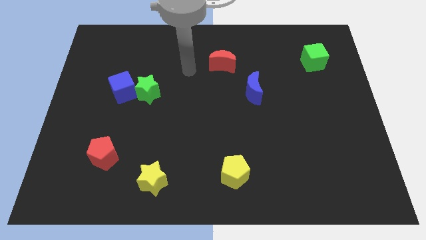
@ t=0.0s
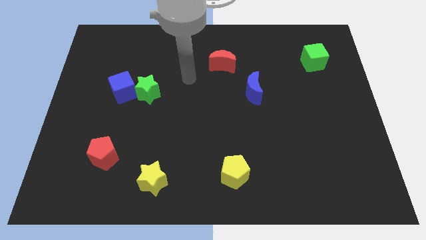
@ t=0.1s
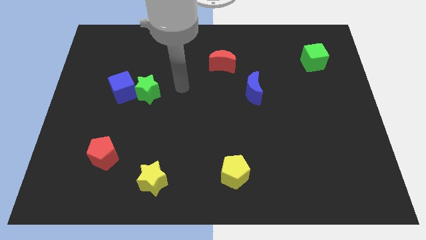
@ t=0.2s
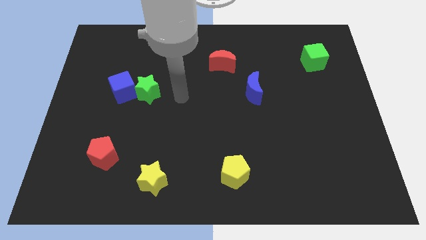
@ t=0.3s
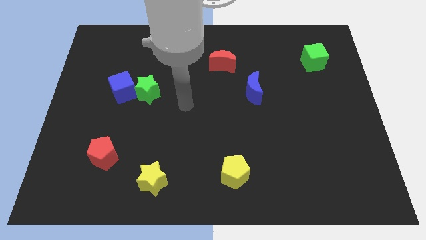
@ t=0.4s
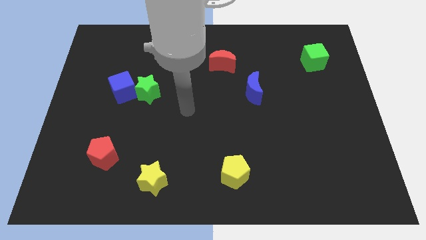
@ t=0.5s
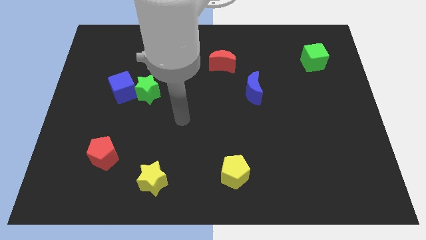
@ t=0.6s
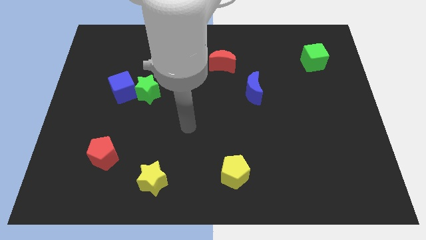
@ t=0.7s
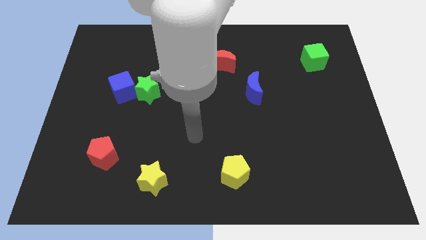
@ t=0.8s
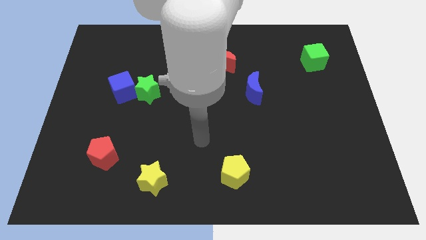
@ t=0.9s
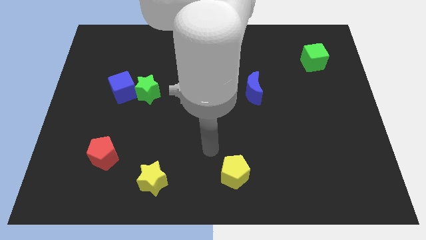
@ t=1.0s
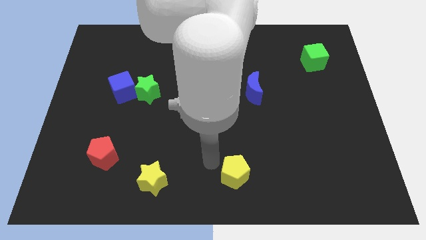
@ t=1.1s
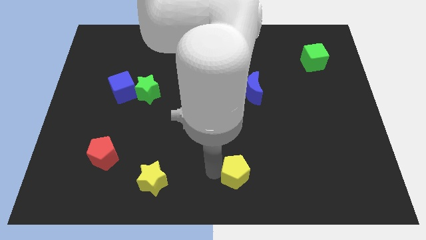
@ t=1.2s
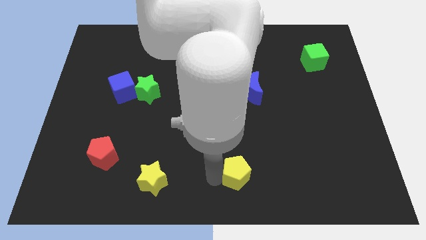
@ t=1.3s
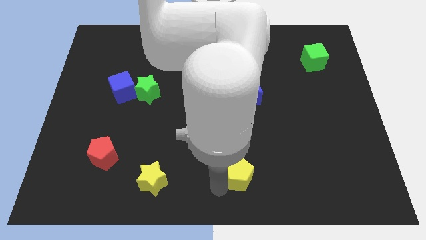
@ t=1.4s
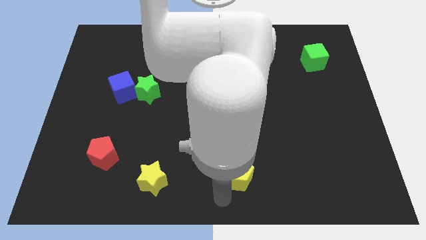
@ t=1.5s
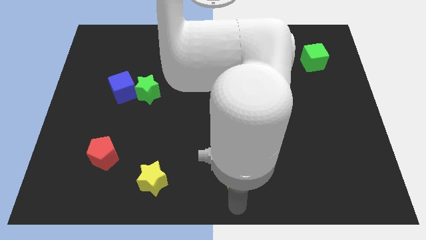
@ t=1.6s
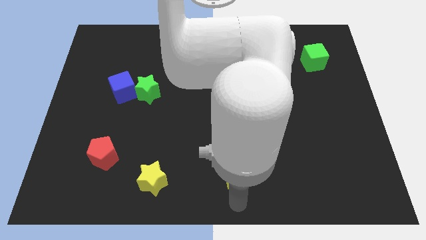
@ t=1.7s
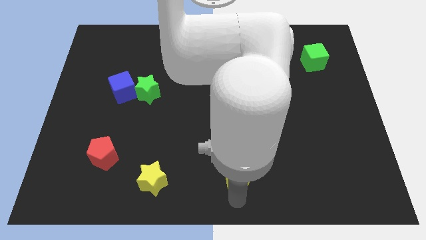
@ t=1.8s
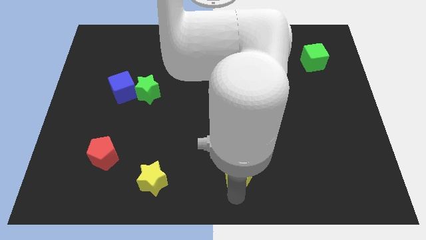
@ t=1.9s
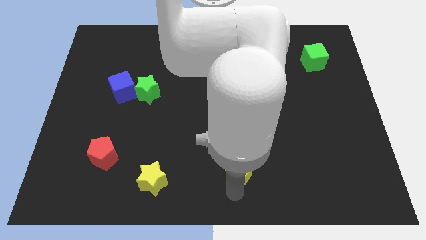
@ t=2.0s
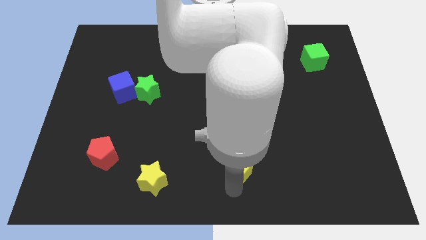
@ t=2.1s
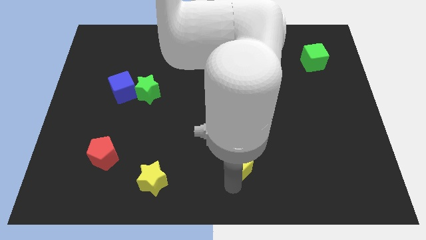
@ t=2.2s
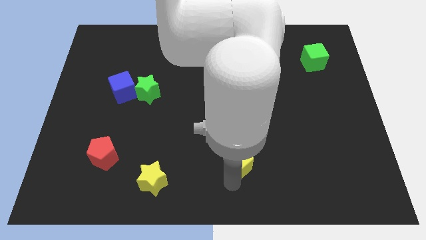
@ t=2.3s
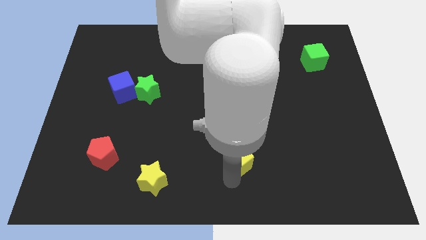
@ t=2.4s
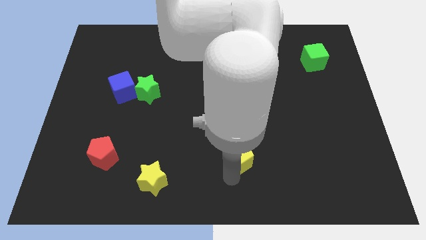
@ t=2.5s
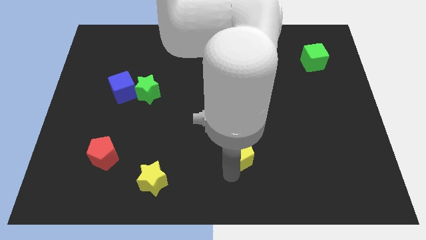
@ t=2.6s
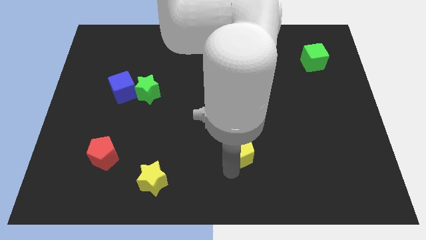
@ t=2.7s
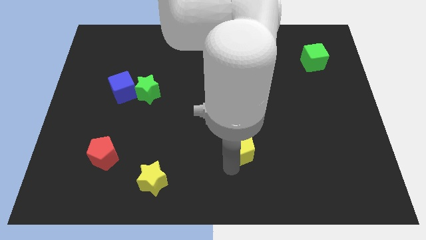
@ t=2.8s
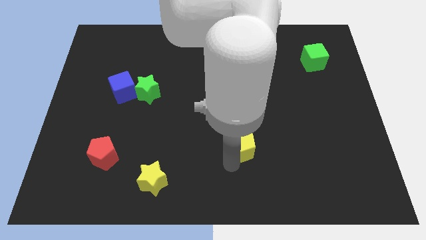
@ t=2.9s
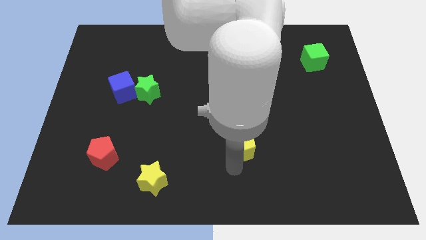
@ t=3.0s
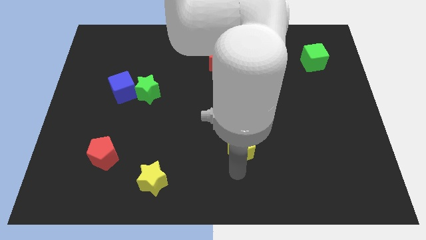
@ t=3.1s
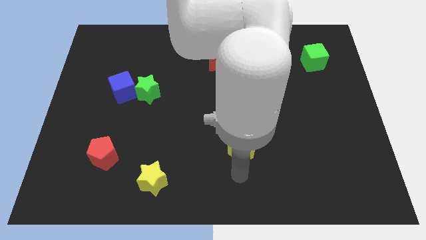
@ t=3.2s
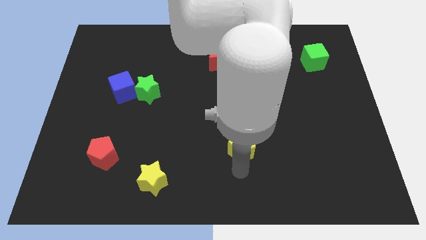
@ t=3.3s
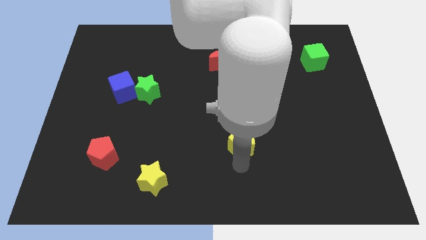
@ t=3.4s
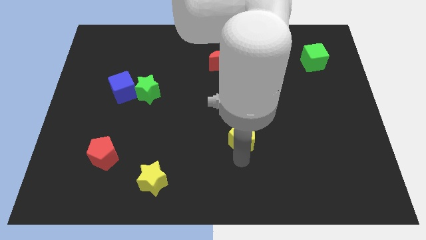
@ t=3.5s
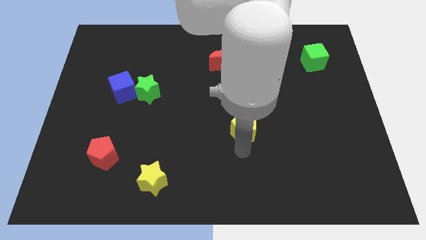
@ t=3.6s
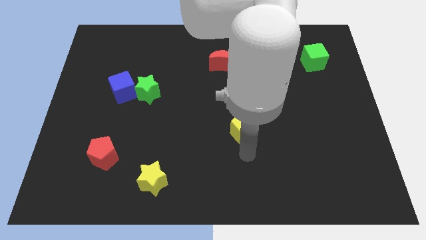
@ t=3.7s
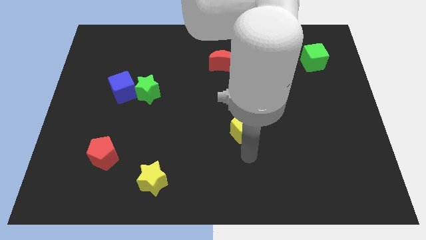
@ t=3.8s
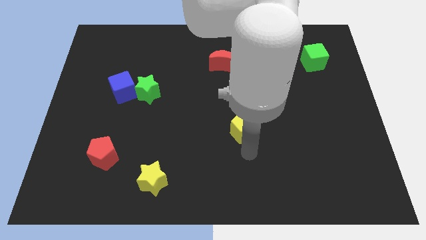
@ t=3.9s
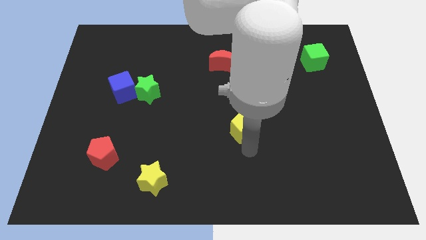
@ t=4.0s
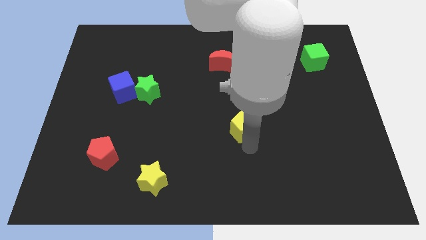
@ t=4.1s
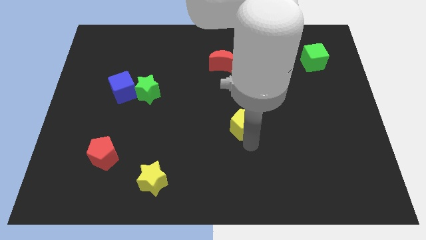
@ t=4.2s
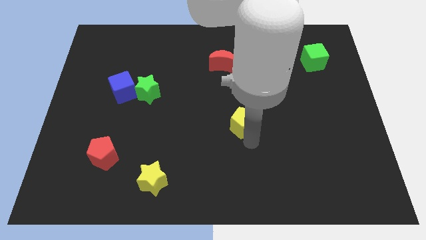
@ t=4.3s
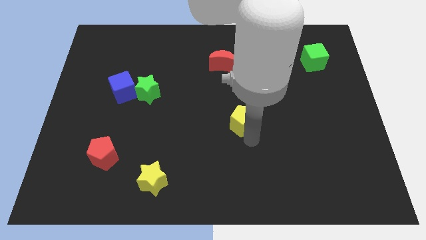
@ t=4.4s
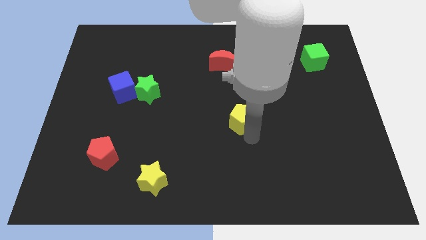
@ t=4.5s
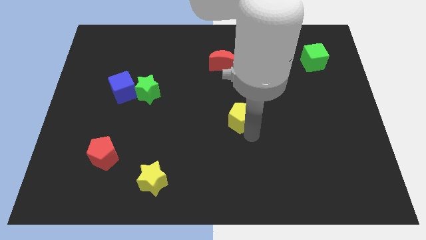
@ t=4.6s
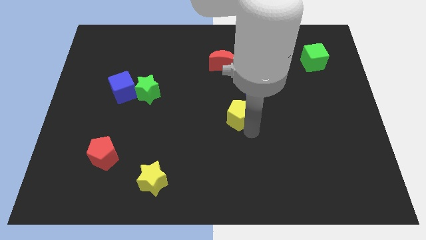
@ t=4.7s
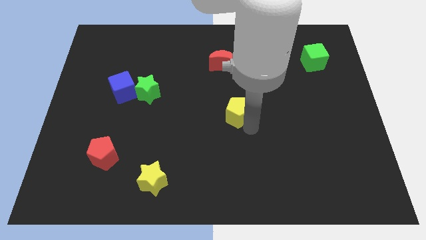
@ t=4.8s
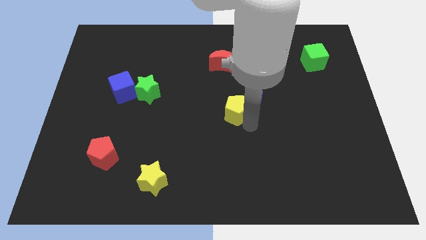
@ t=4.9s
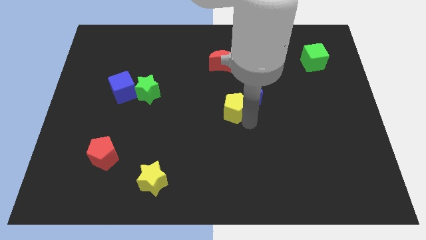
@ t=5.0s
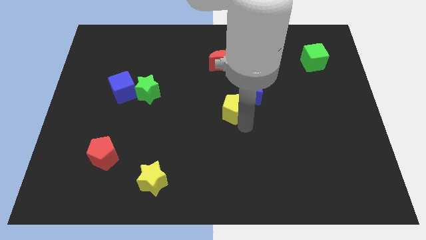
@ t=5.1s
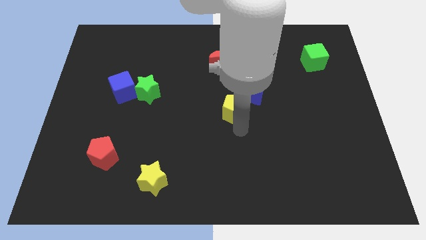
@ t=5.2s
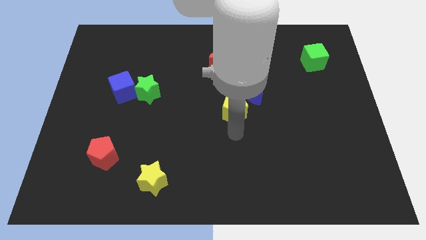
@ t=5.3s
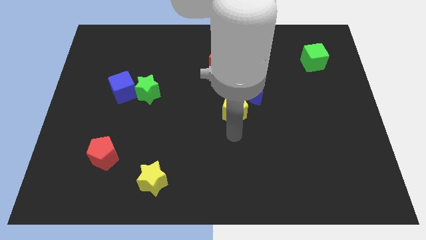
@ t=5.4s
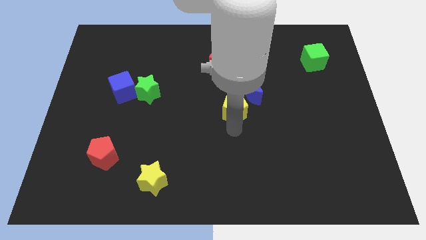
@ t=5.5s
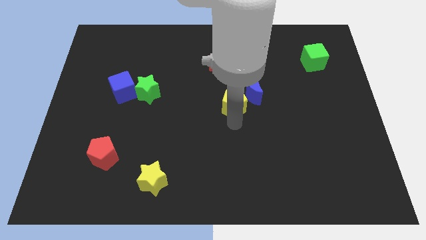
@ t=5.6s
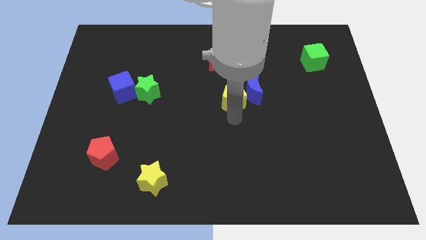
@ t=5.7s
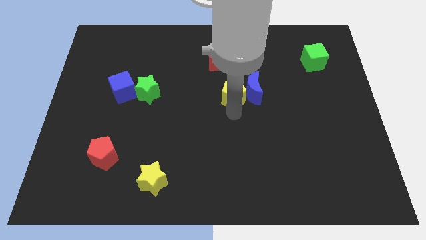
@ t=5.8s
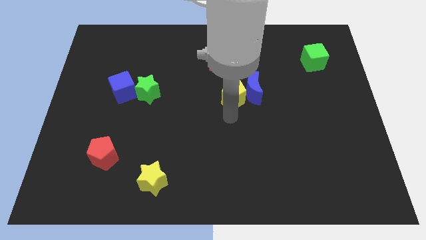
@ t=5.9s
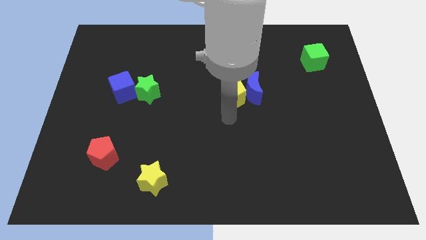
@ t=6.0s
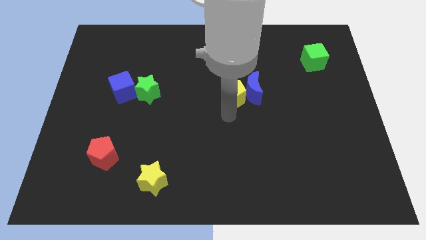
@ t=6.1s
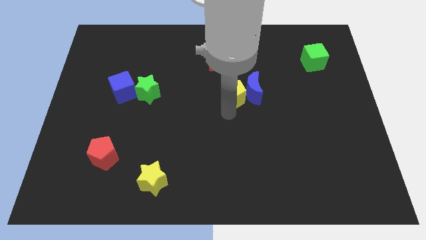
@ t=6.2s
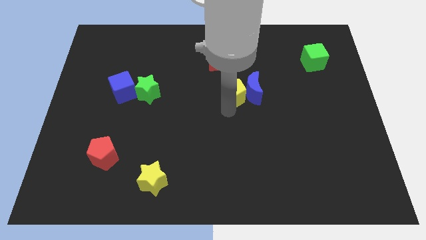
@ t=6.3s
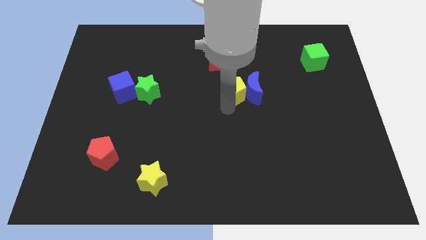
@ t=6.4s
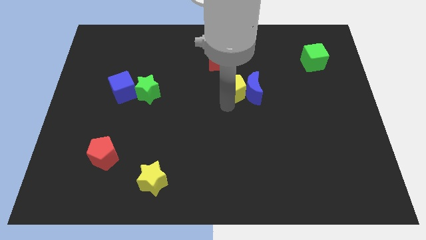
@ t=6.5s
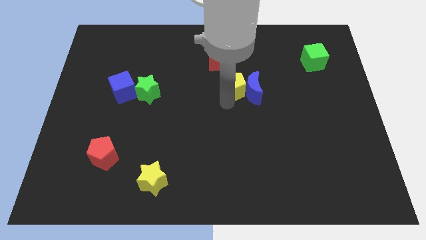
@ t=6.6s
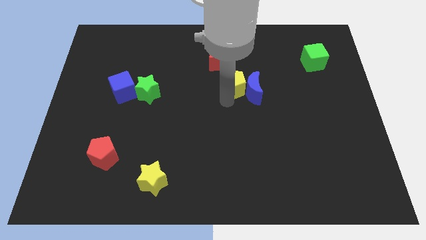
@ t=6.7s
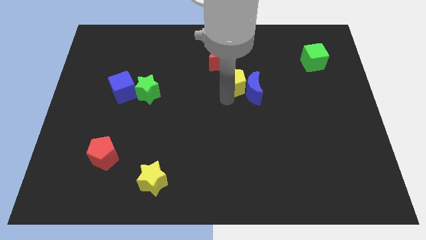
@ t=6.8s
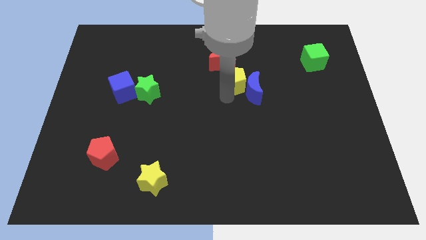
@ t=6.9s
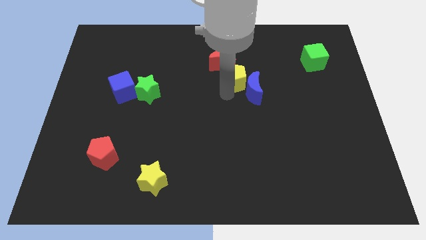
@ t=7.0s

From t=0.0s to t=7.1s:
slide the yellow pentagon to the top of the blue moon
